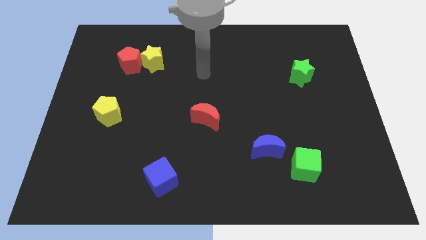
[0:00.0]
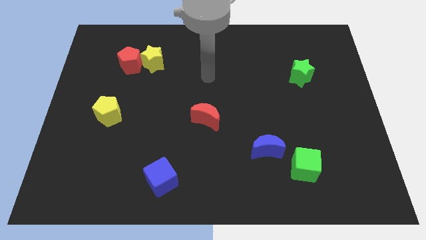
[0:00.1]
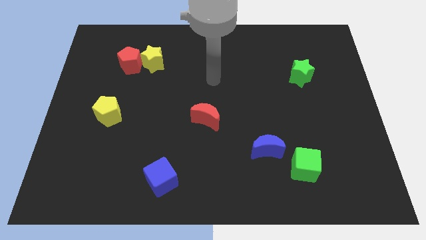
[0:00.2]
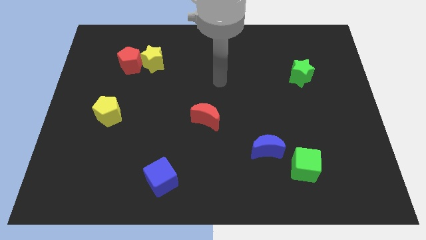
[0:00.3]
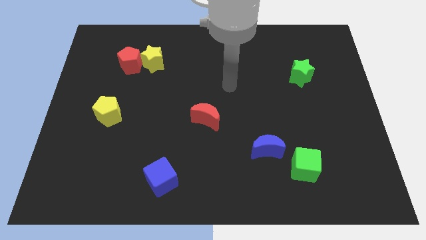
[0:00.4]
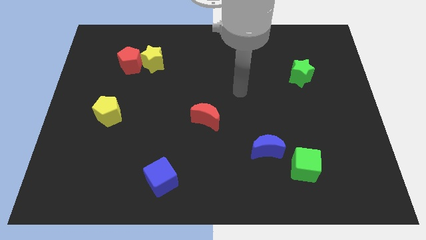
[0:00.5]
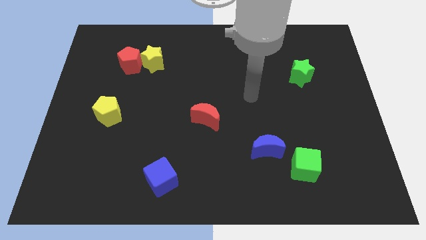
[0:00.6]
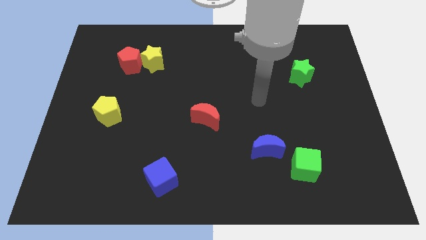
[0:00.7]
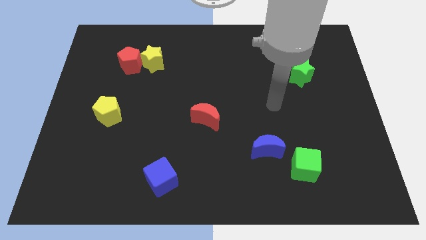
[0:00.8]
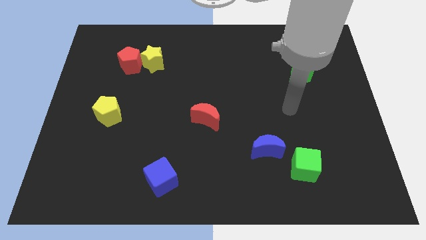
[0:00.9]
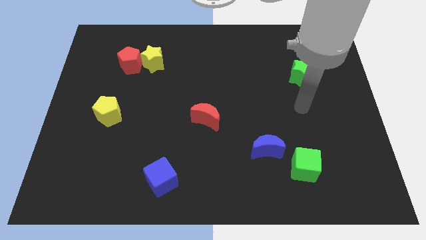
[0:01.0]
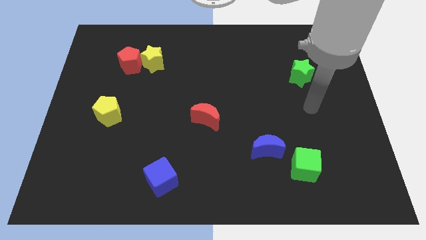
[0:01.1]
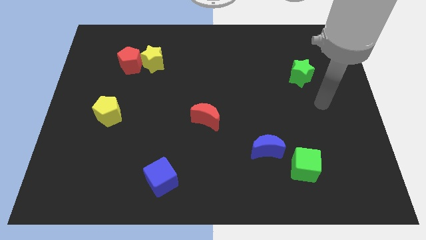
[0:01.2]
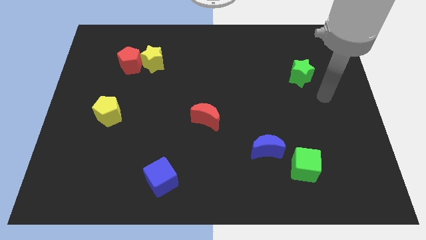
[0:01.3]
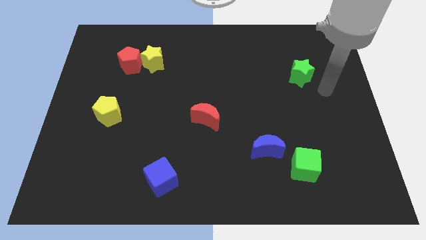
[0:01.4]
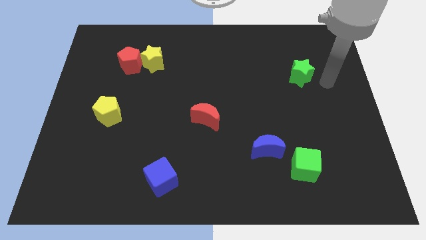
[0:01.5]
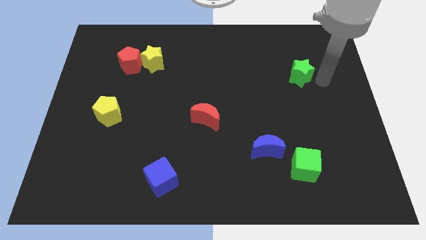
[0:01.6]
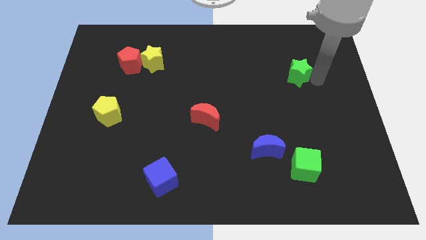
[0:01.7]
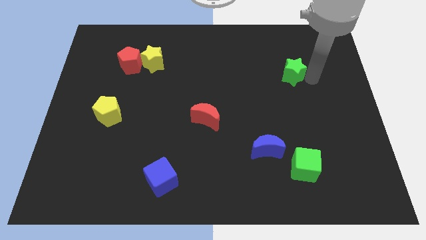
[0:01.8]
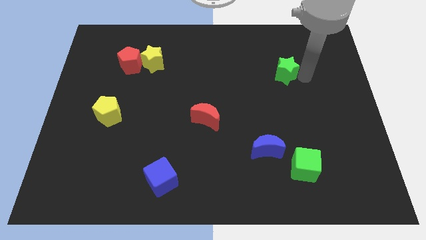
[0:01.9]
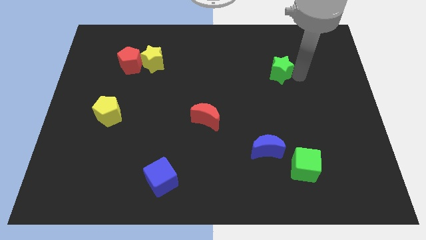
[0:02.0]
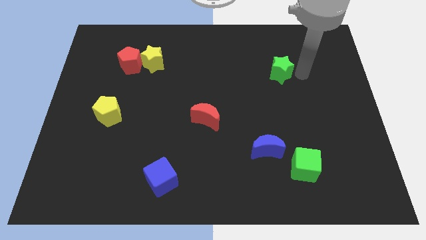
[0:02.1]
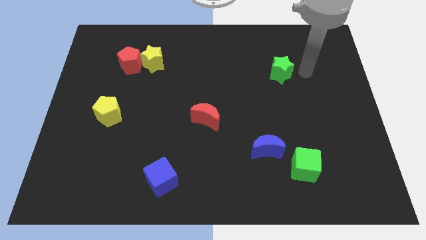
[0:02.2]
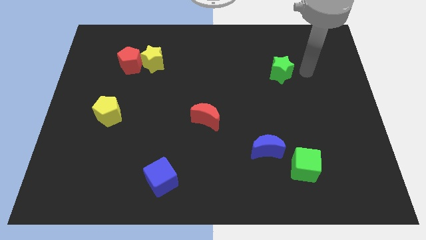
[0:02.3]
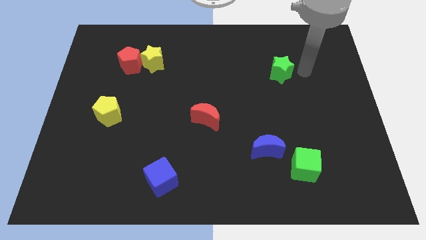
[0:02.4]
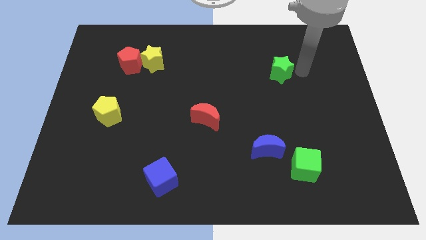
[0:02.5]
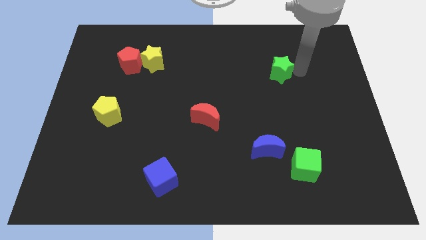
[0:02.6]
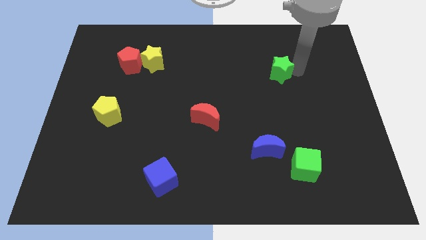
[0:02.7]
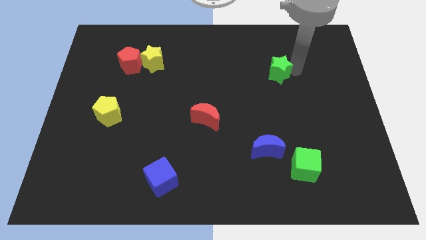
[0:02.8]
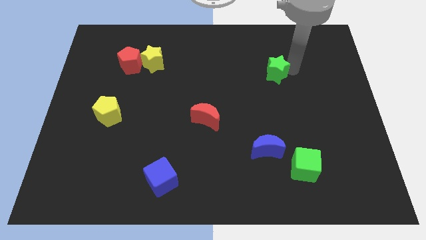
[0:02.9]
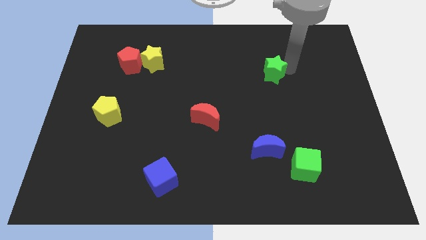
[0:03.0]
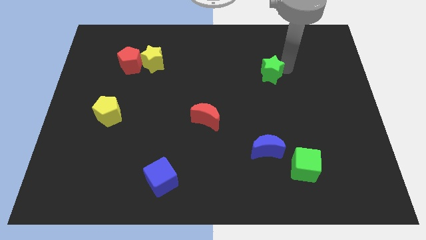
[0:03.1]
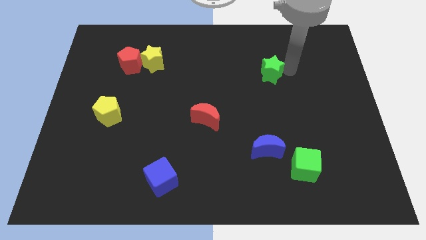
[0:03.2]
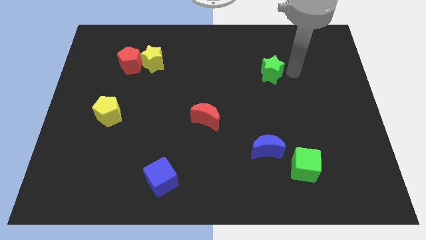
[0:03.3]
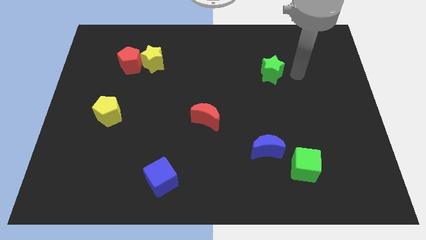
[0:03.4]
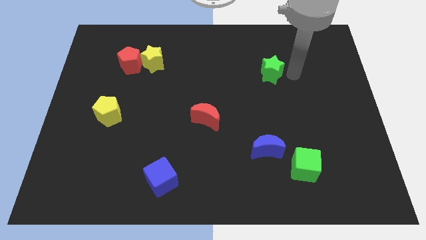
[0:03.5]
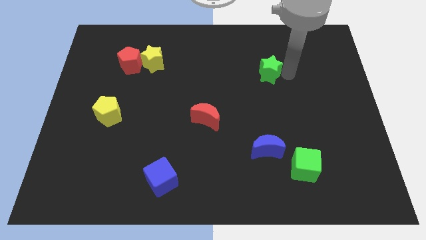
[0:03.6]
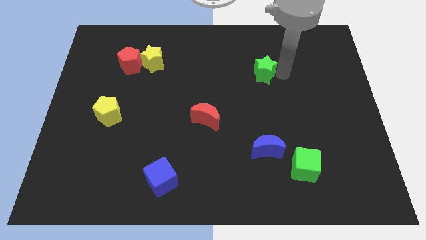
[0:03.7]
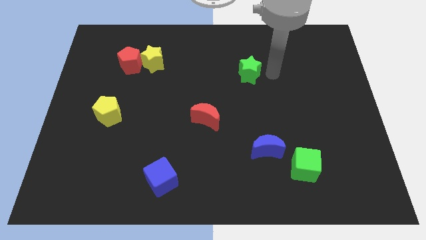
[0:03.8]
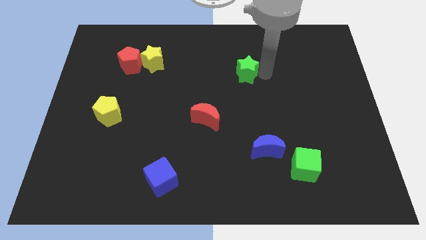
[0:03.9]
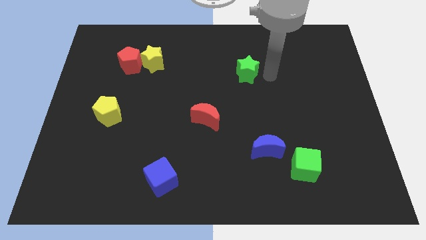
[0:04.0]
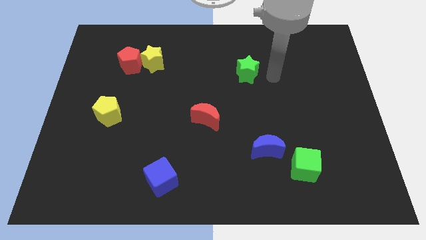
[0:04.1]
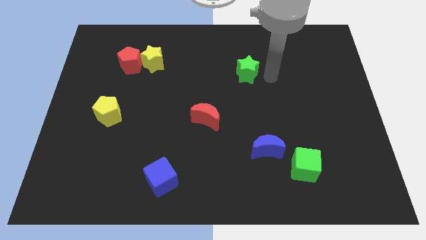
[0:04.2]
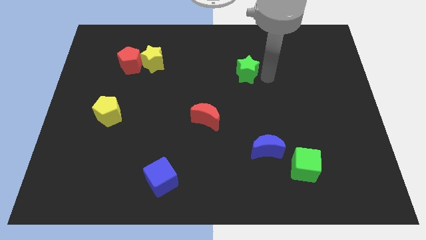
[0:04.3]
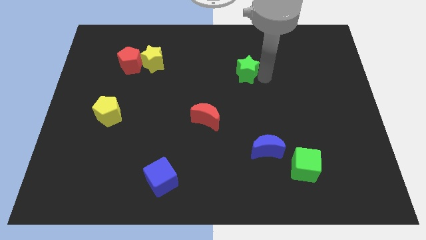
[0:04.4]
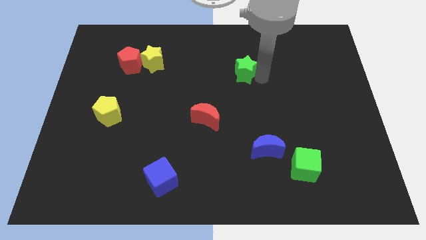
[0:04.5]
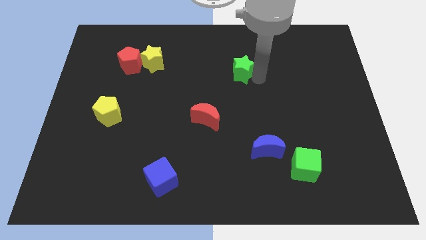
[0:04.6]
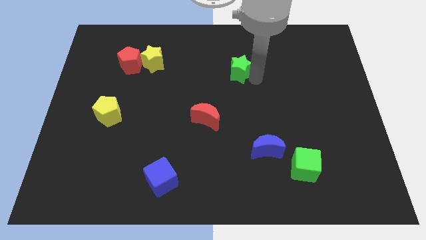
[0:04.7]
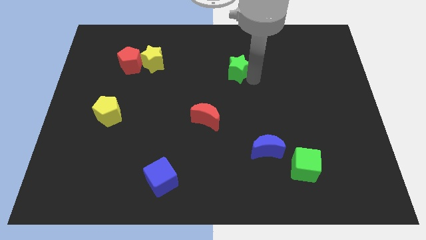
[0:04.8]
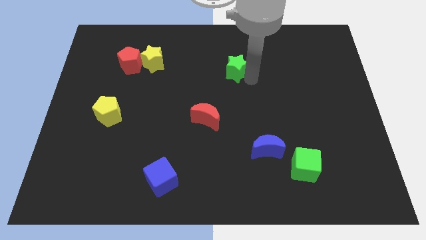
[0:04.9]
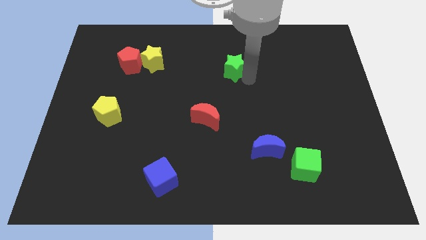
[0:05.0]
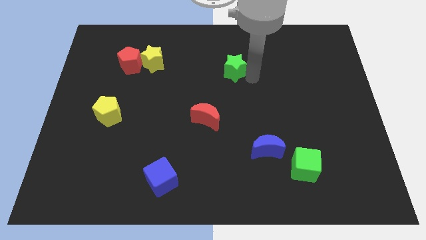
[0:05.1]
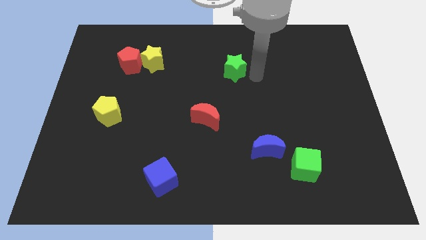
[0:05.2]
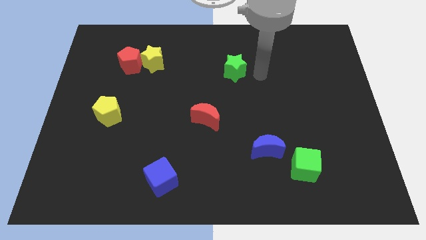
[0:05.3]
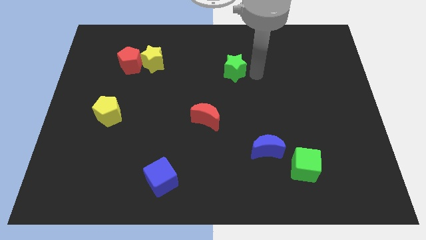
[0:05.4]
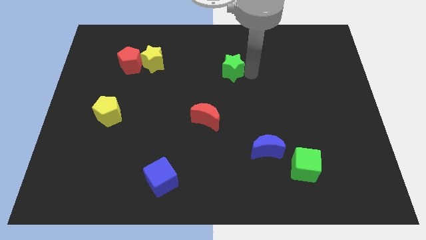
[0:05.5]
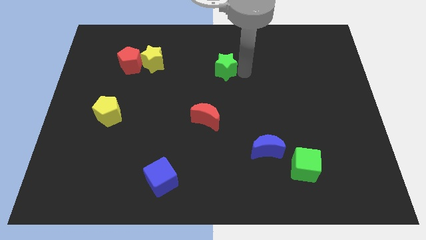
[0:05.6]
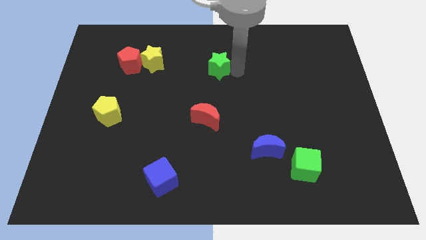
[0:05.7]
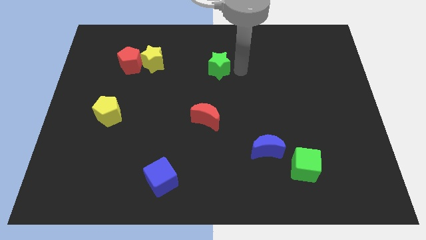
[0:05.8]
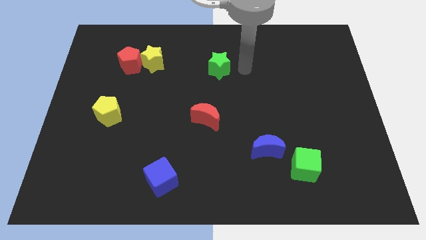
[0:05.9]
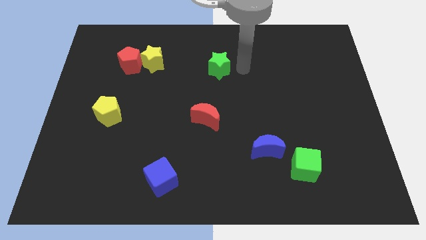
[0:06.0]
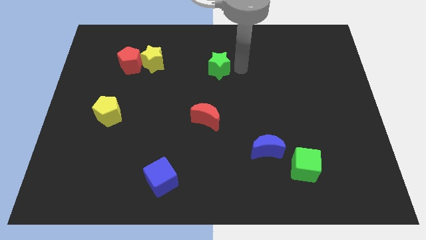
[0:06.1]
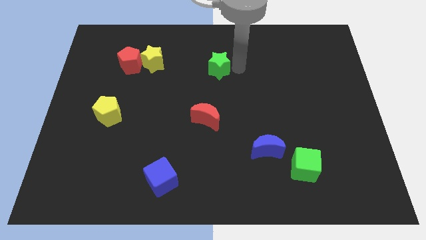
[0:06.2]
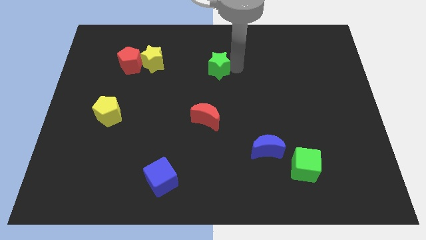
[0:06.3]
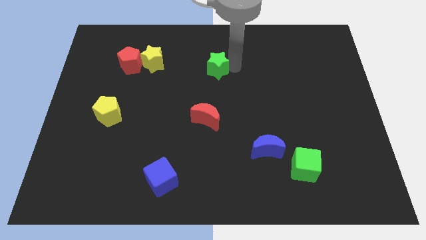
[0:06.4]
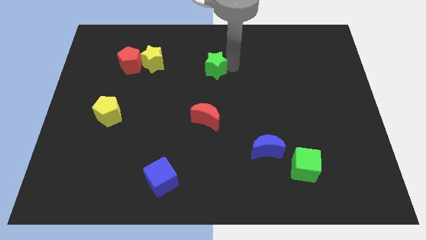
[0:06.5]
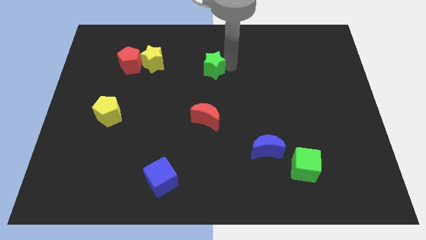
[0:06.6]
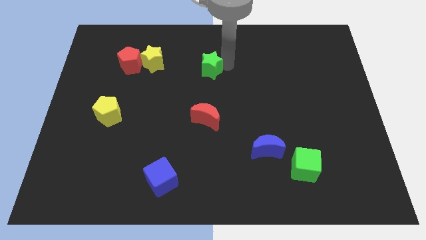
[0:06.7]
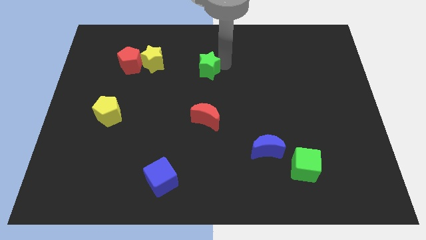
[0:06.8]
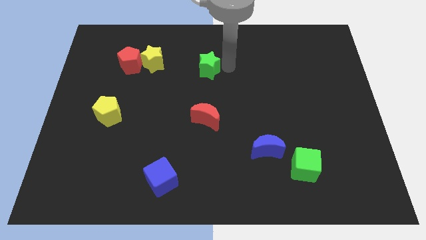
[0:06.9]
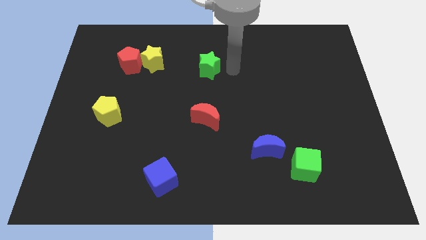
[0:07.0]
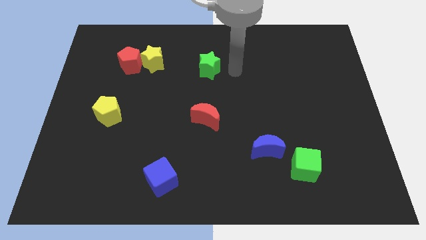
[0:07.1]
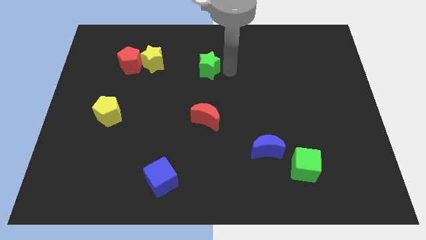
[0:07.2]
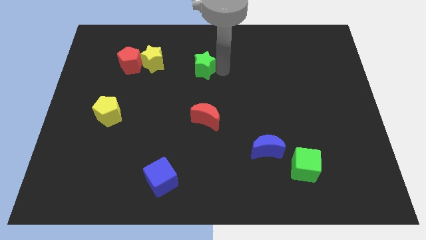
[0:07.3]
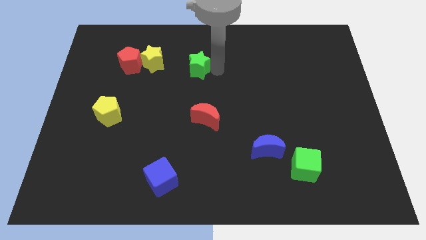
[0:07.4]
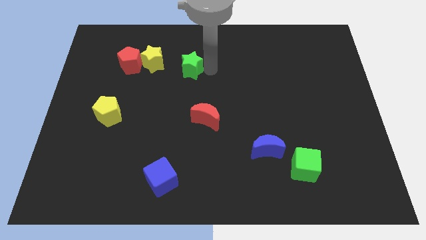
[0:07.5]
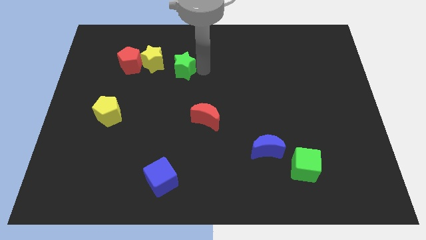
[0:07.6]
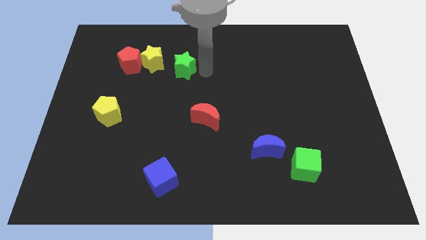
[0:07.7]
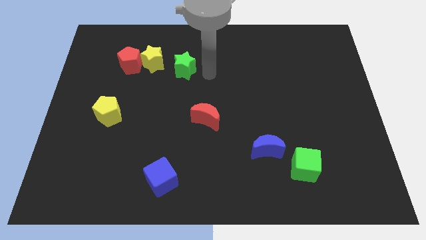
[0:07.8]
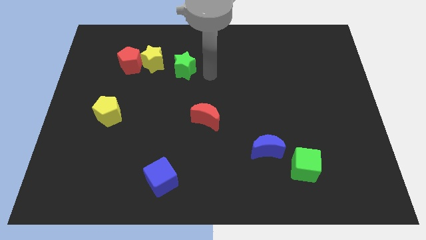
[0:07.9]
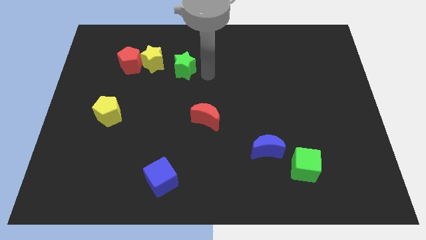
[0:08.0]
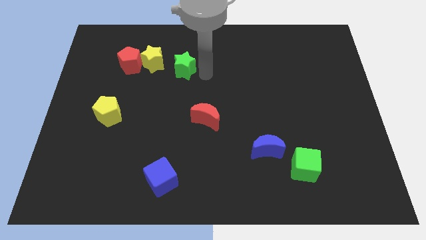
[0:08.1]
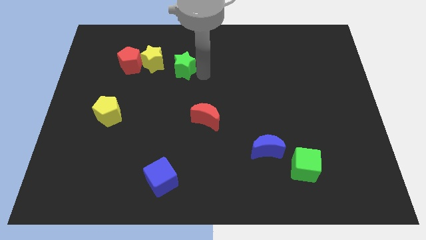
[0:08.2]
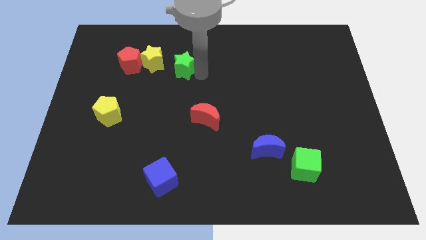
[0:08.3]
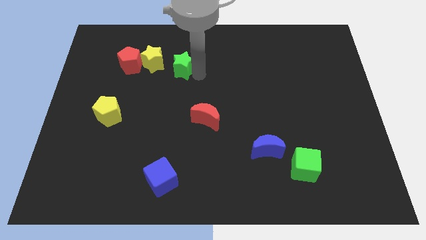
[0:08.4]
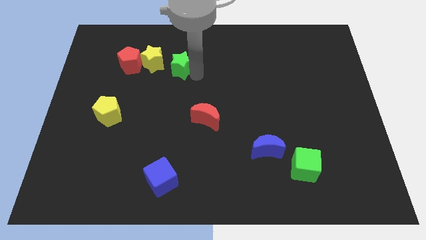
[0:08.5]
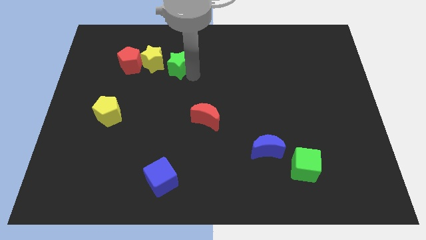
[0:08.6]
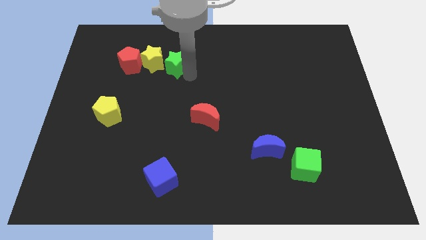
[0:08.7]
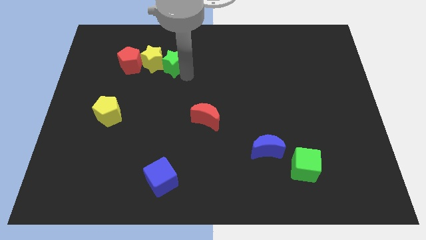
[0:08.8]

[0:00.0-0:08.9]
put the green star close to the yellow star
